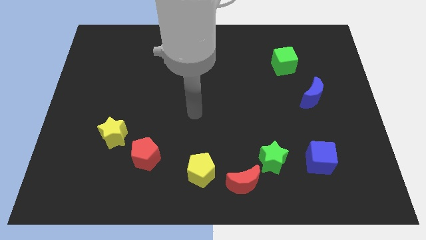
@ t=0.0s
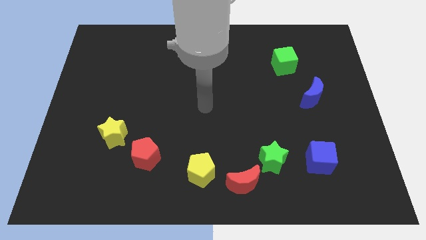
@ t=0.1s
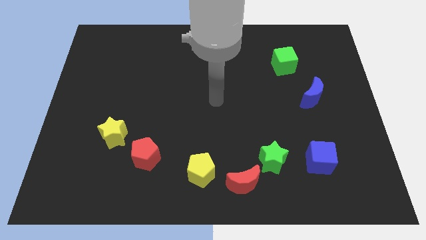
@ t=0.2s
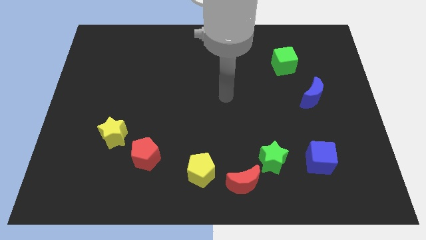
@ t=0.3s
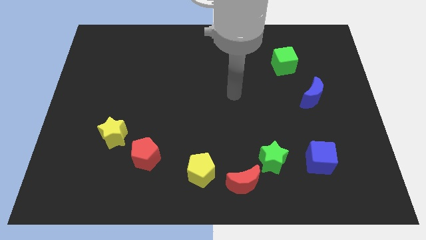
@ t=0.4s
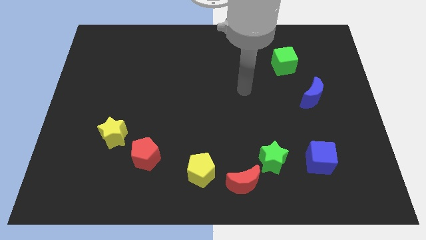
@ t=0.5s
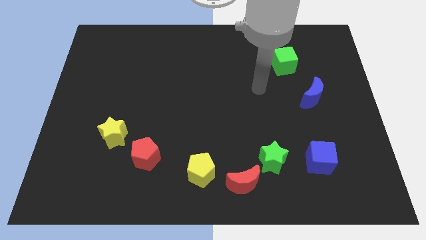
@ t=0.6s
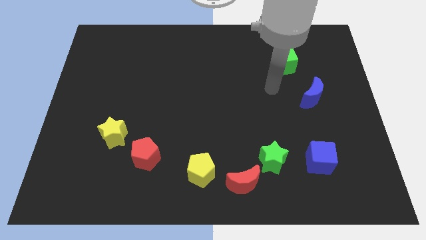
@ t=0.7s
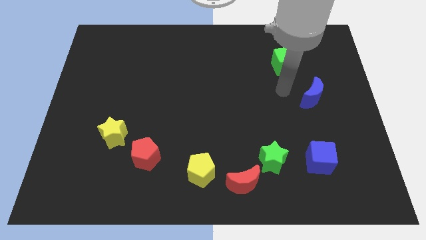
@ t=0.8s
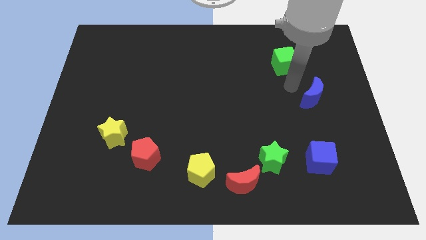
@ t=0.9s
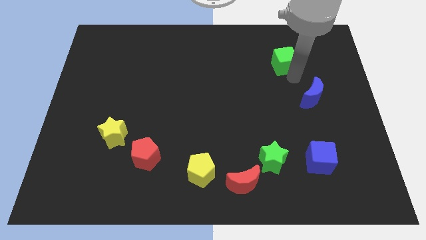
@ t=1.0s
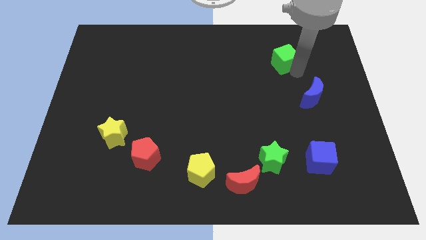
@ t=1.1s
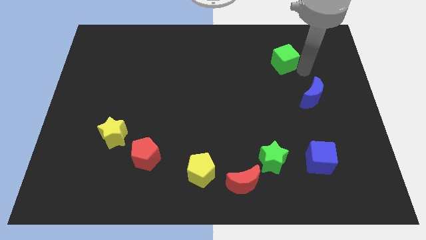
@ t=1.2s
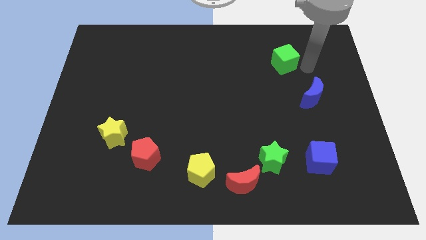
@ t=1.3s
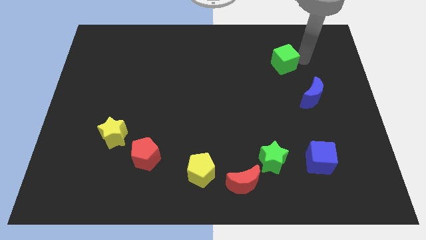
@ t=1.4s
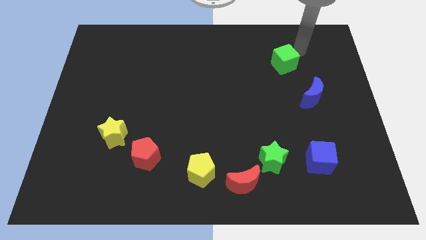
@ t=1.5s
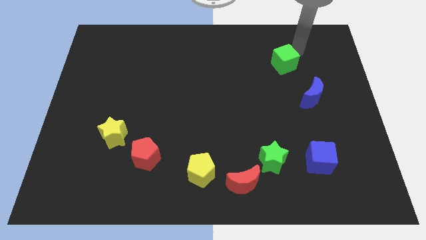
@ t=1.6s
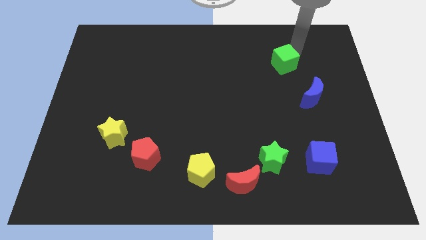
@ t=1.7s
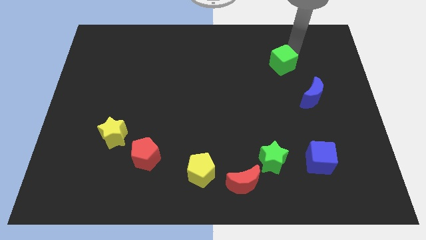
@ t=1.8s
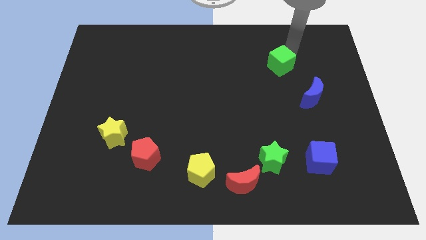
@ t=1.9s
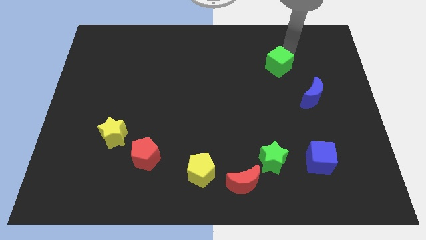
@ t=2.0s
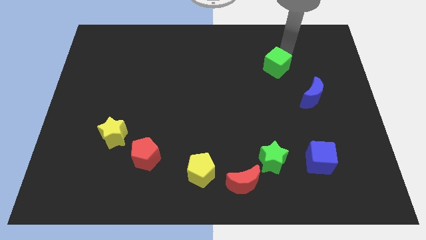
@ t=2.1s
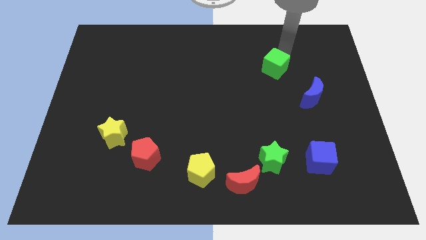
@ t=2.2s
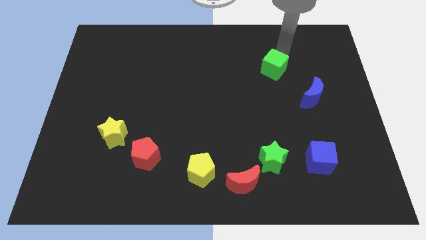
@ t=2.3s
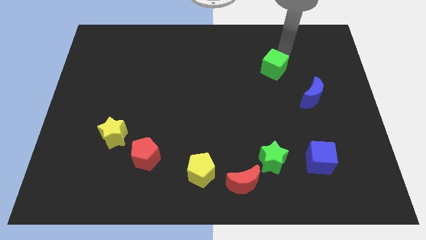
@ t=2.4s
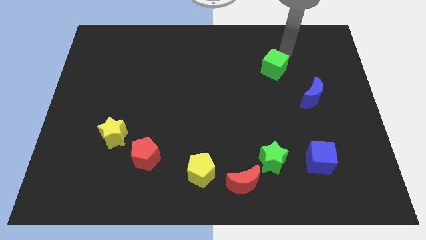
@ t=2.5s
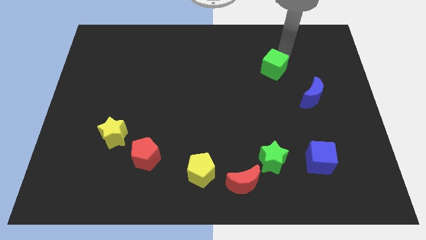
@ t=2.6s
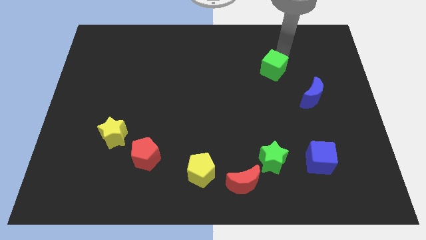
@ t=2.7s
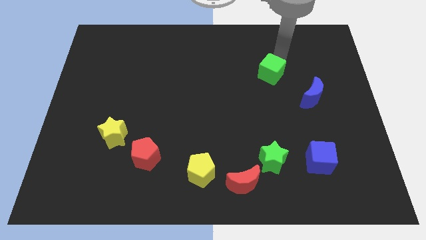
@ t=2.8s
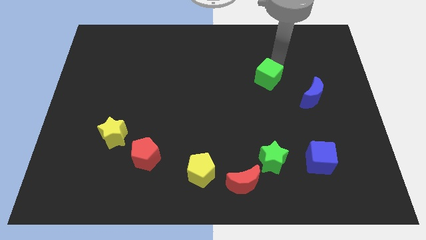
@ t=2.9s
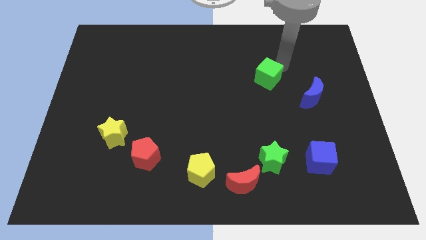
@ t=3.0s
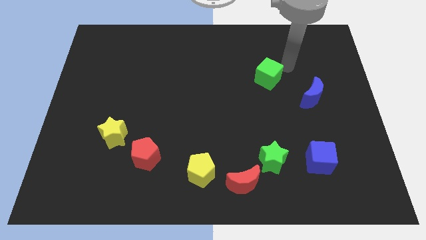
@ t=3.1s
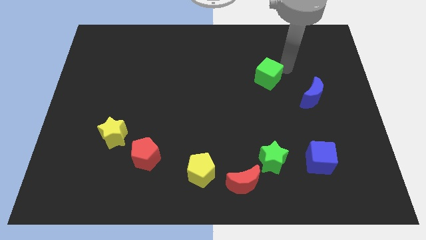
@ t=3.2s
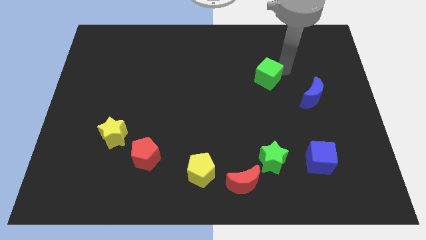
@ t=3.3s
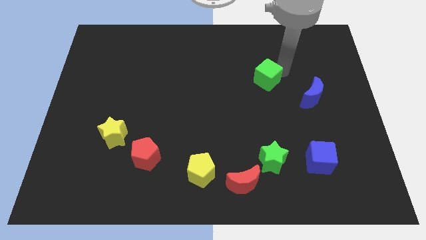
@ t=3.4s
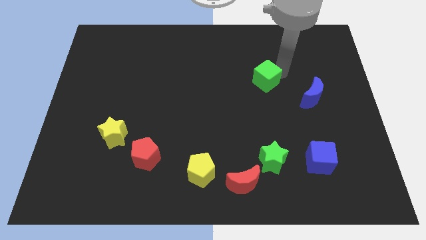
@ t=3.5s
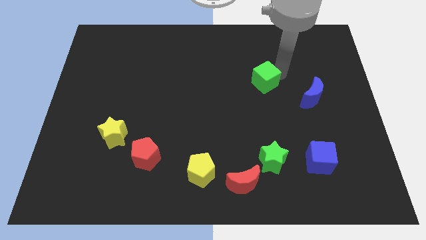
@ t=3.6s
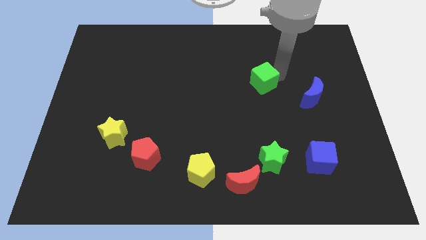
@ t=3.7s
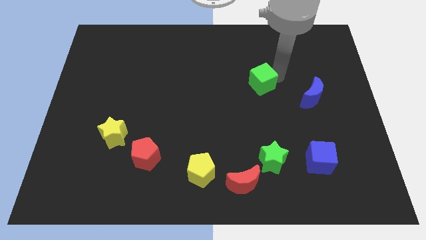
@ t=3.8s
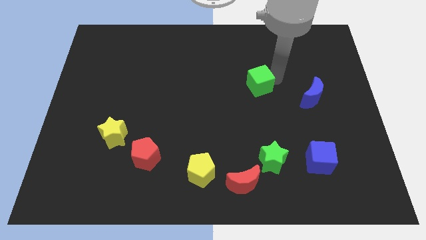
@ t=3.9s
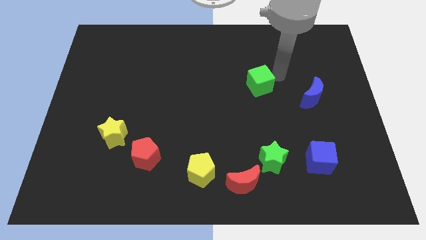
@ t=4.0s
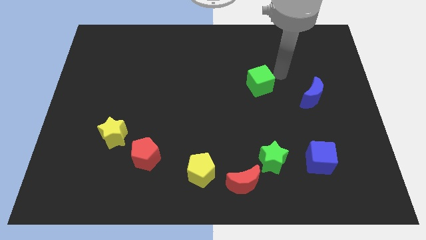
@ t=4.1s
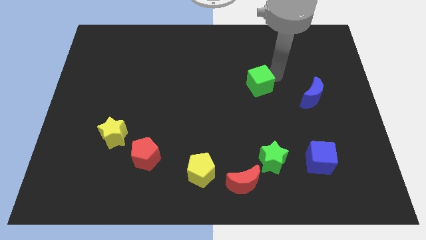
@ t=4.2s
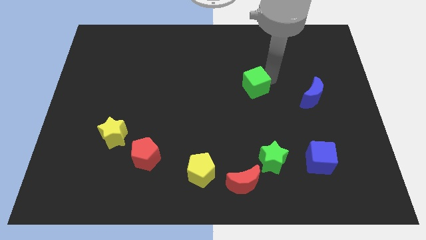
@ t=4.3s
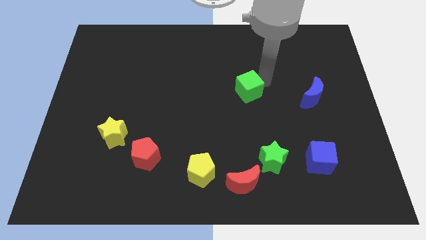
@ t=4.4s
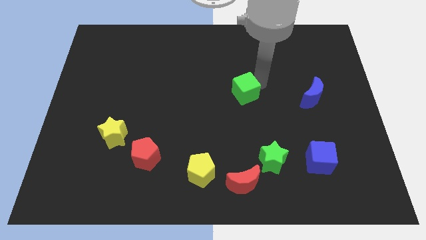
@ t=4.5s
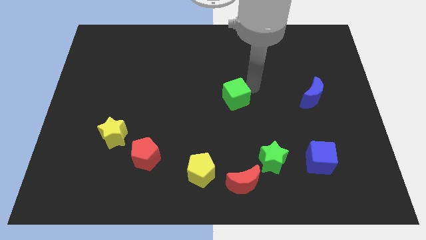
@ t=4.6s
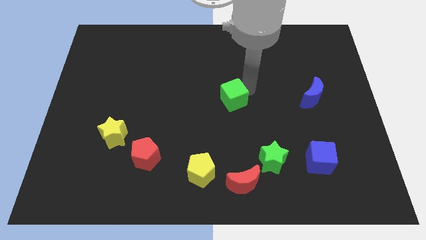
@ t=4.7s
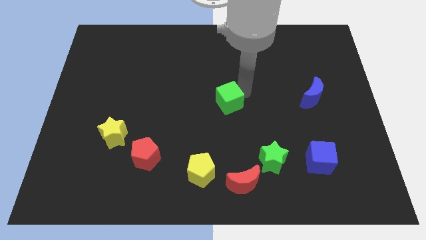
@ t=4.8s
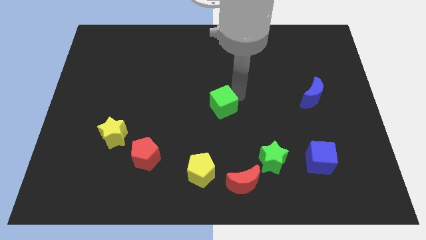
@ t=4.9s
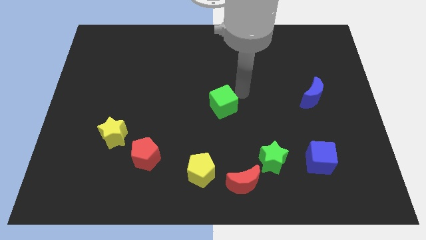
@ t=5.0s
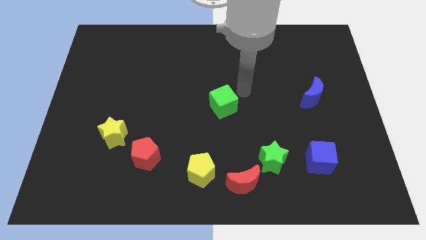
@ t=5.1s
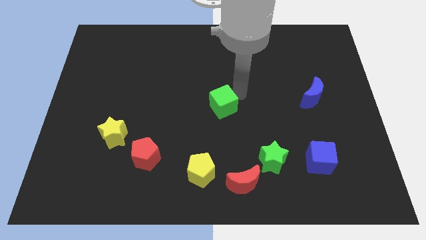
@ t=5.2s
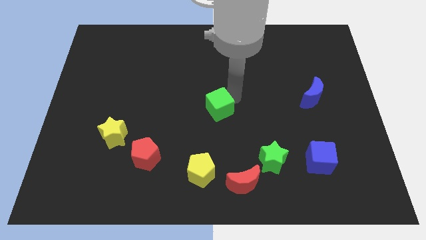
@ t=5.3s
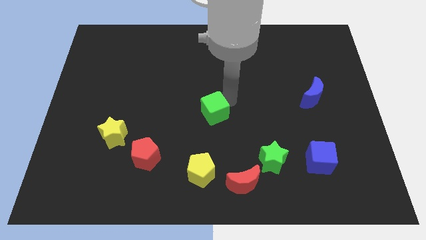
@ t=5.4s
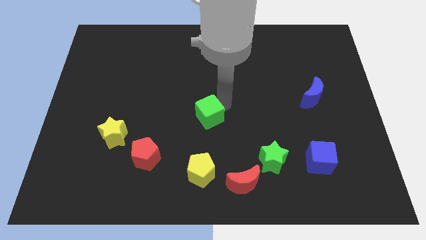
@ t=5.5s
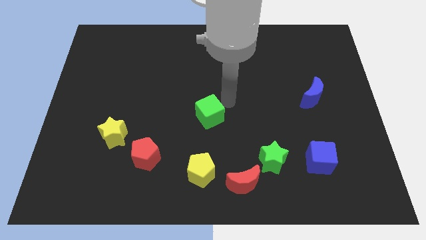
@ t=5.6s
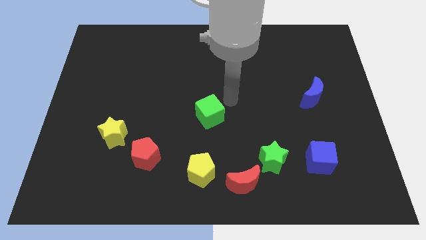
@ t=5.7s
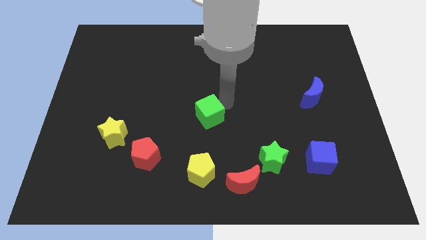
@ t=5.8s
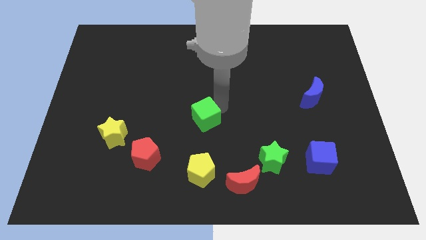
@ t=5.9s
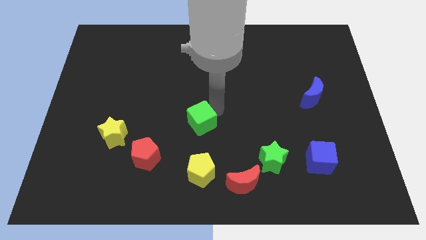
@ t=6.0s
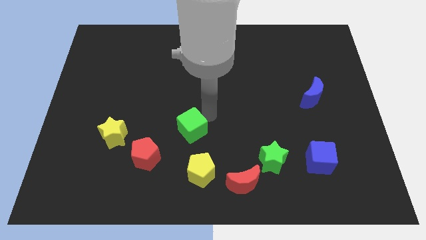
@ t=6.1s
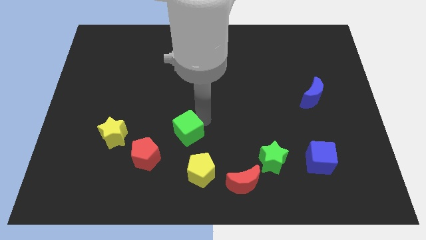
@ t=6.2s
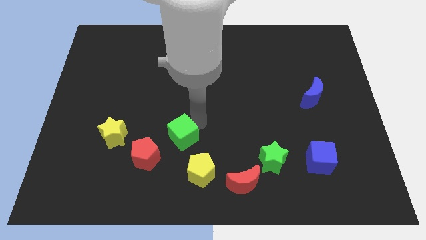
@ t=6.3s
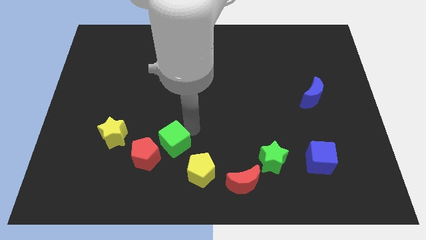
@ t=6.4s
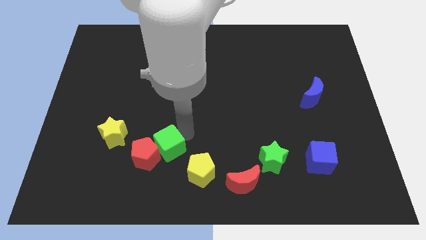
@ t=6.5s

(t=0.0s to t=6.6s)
put the green cube to the red pentagon
